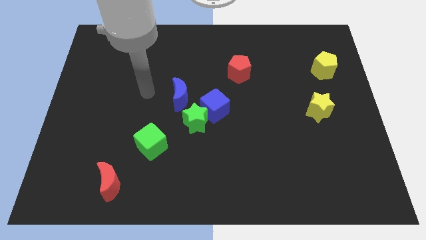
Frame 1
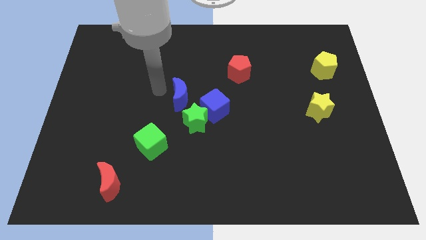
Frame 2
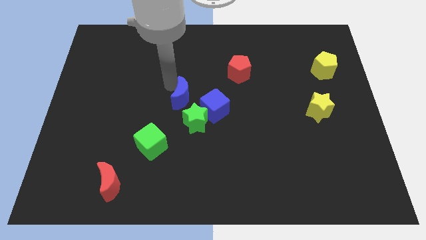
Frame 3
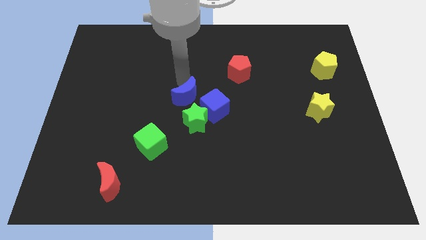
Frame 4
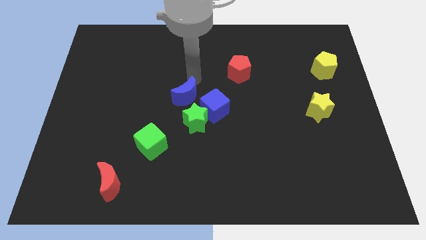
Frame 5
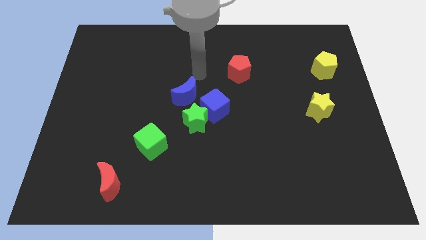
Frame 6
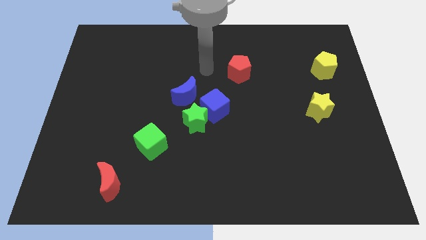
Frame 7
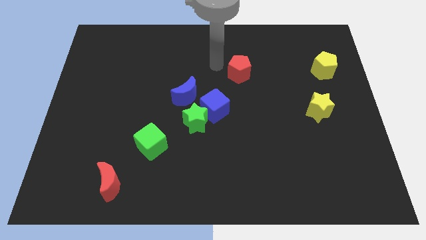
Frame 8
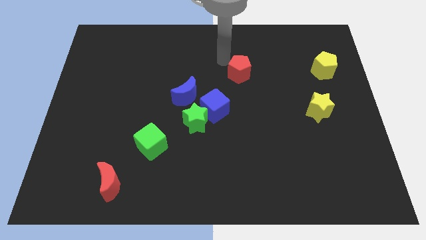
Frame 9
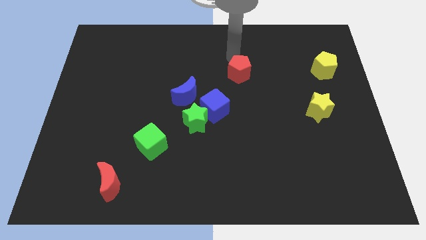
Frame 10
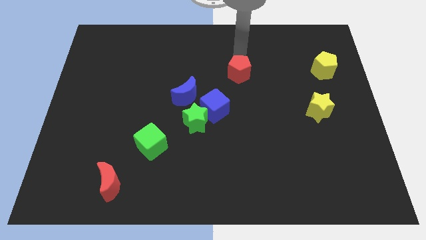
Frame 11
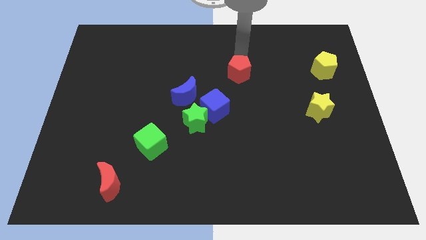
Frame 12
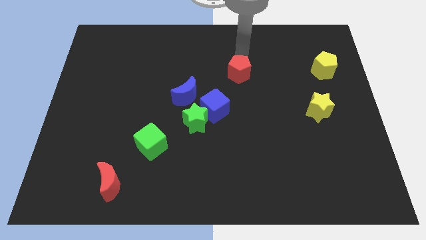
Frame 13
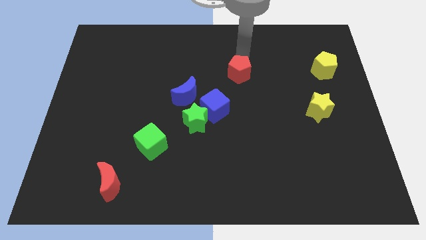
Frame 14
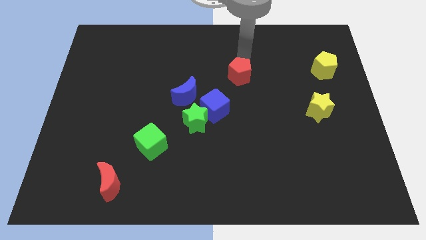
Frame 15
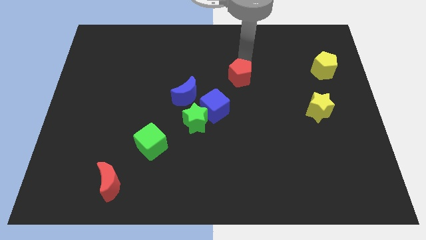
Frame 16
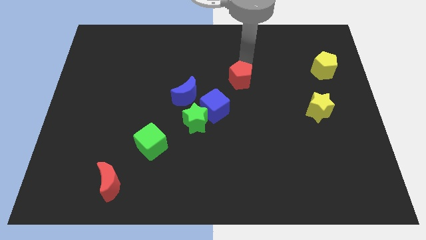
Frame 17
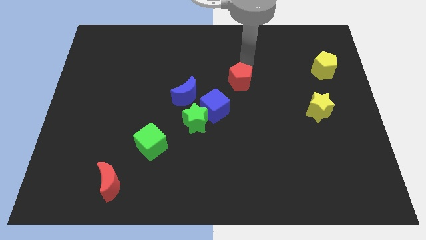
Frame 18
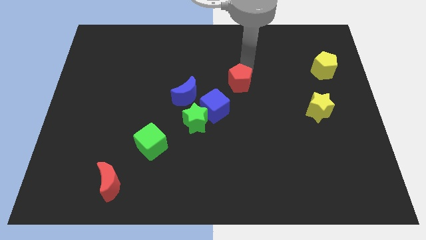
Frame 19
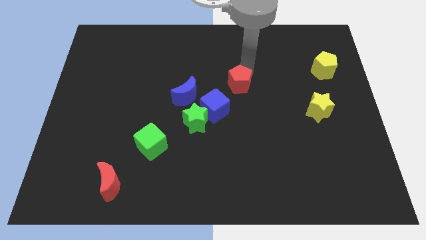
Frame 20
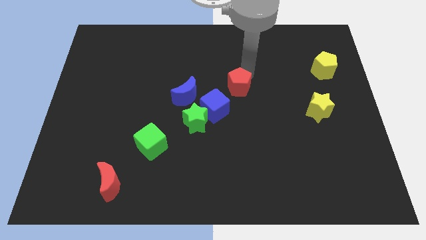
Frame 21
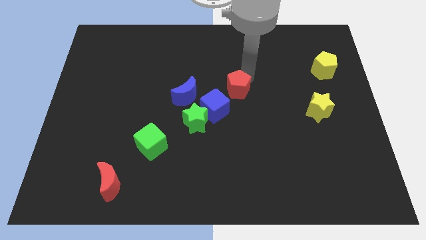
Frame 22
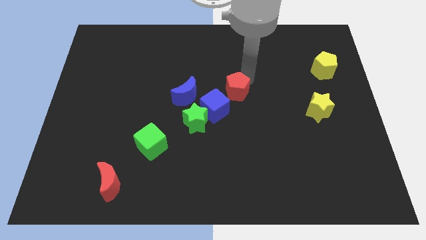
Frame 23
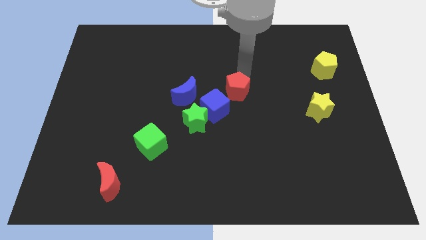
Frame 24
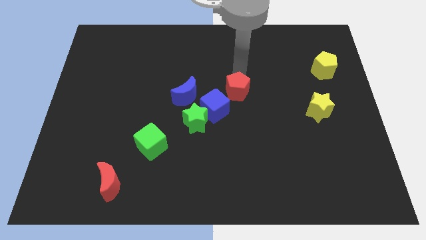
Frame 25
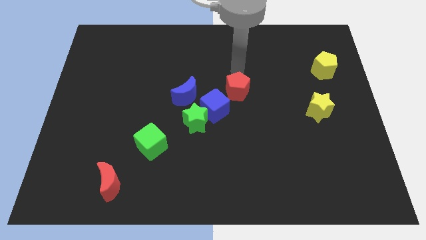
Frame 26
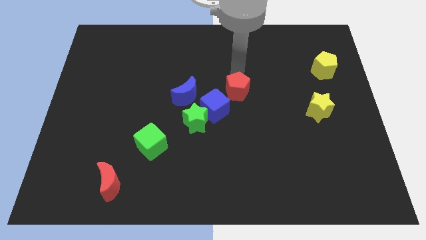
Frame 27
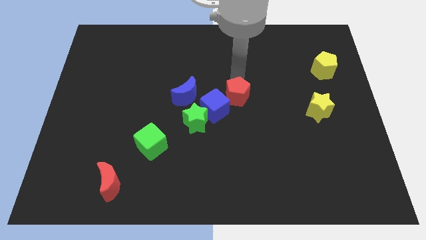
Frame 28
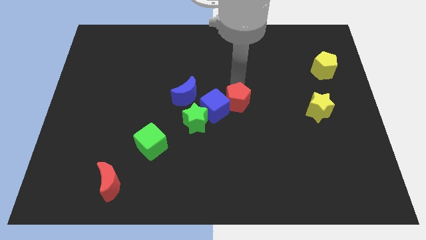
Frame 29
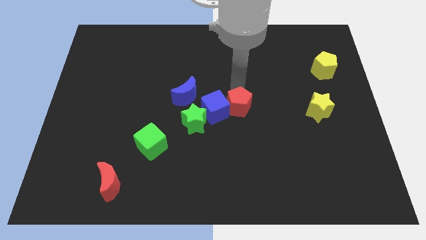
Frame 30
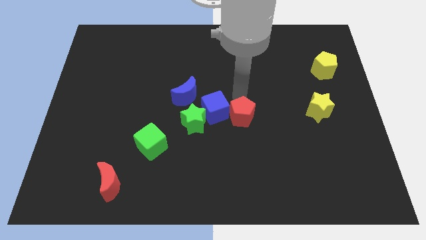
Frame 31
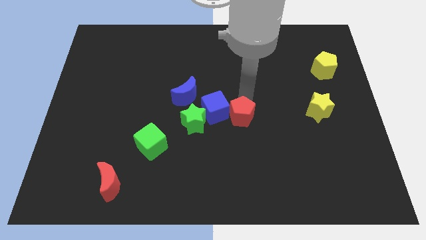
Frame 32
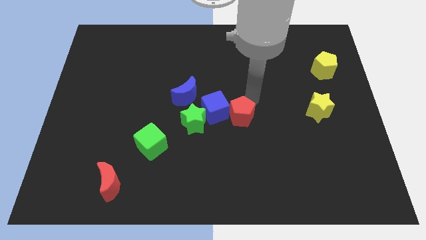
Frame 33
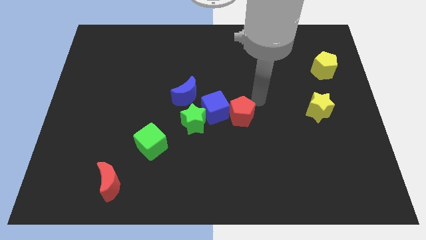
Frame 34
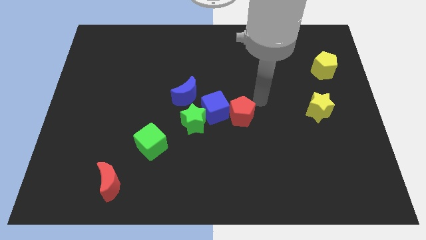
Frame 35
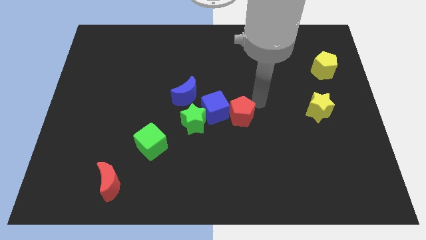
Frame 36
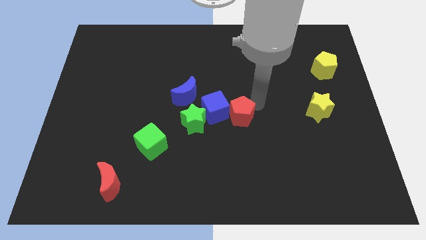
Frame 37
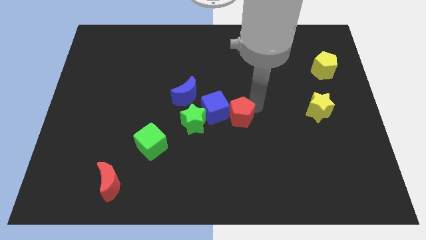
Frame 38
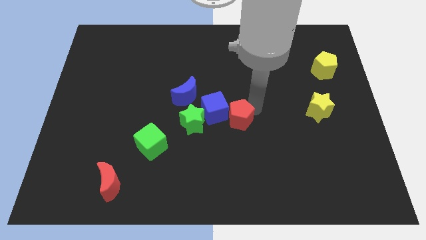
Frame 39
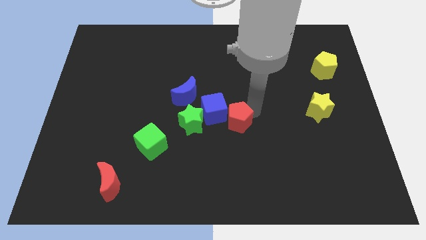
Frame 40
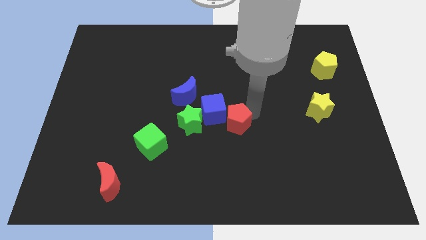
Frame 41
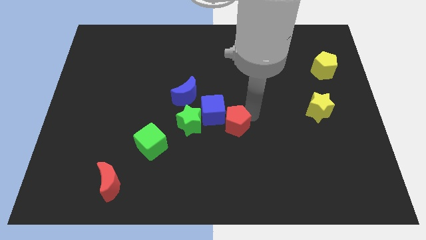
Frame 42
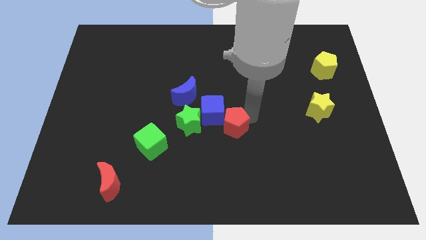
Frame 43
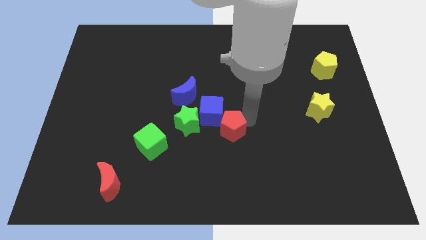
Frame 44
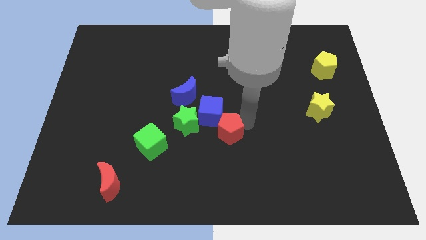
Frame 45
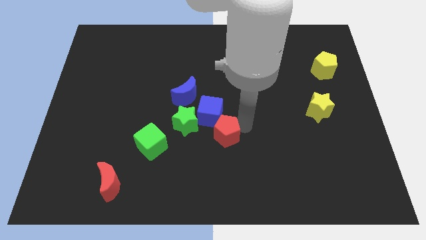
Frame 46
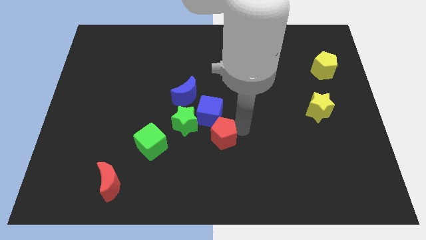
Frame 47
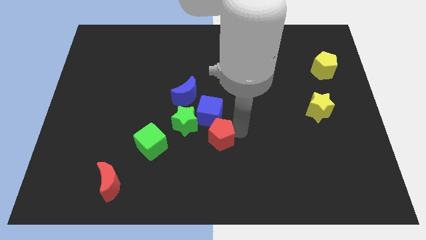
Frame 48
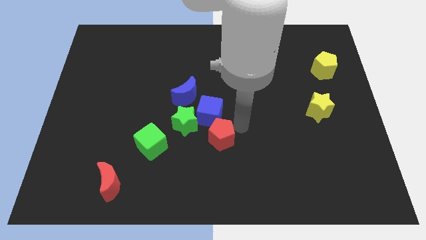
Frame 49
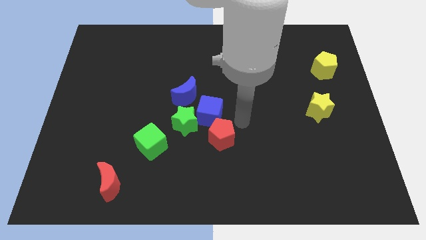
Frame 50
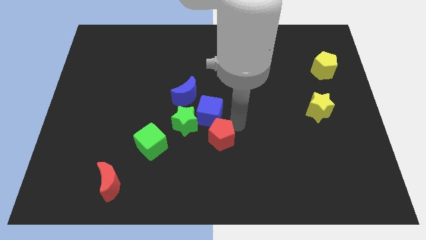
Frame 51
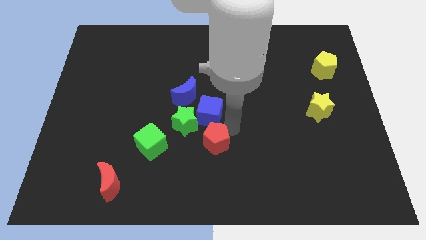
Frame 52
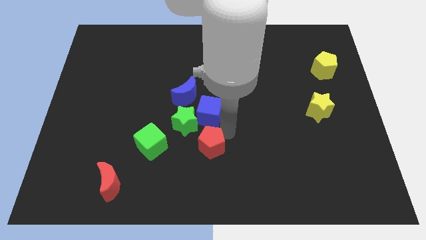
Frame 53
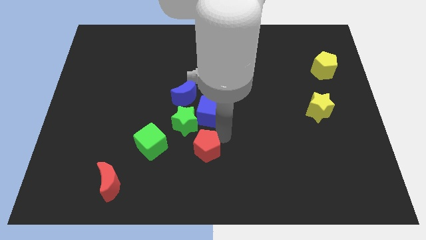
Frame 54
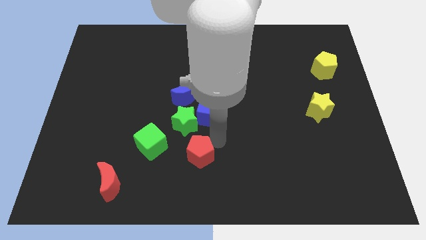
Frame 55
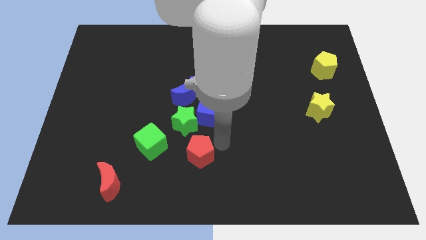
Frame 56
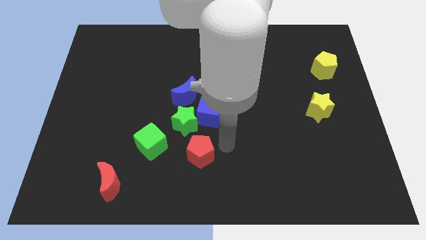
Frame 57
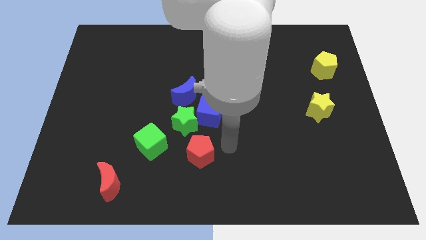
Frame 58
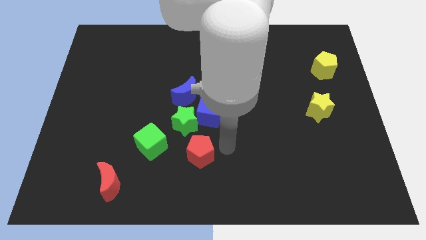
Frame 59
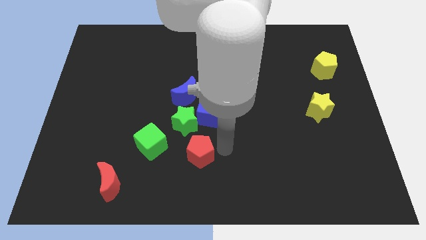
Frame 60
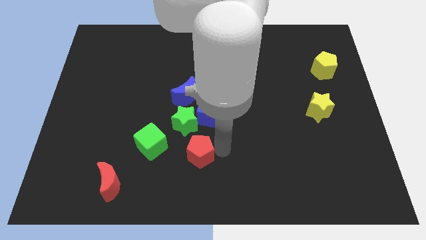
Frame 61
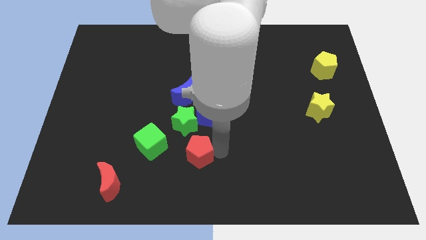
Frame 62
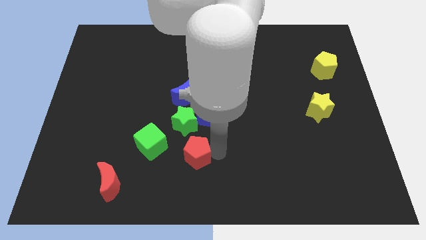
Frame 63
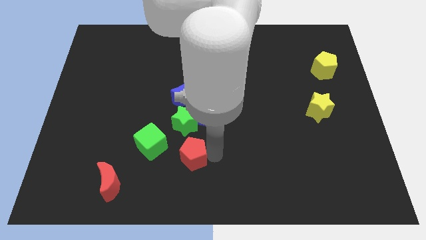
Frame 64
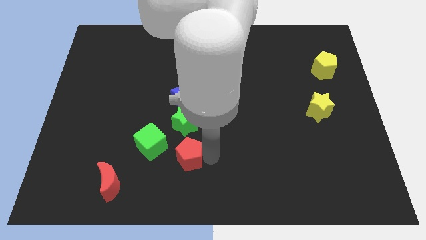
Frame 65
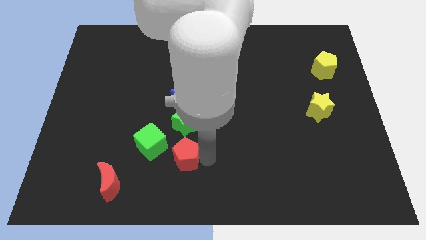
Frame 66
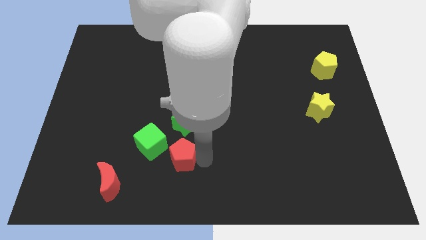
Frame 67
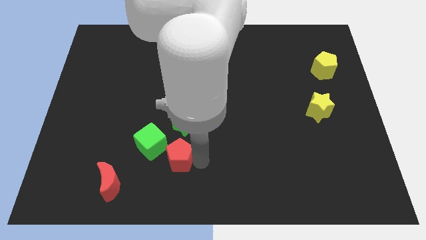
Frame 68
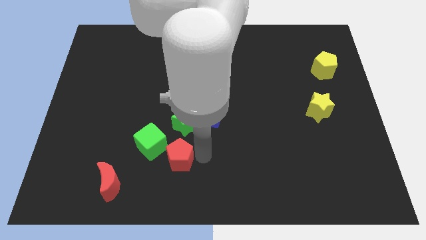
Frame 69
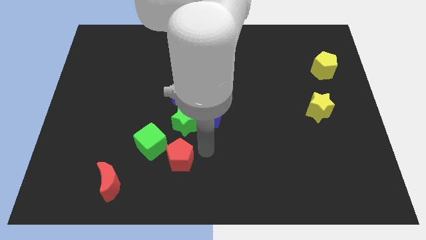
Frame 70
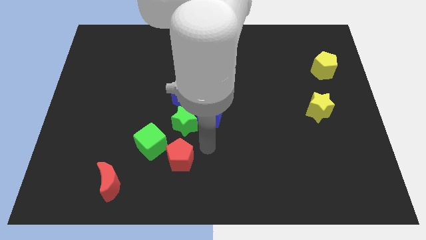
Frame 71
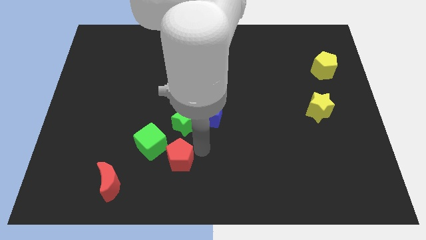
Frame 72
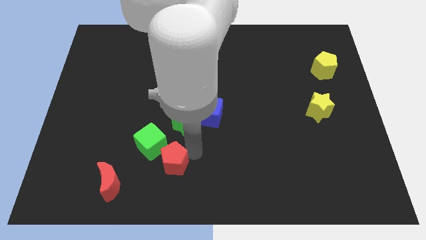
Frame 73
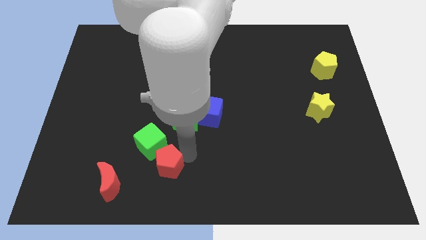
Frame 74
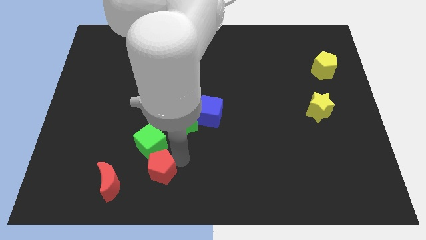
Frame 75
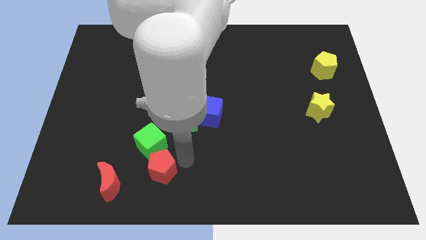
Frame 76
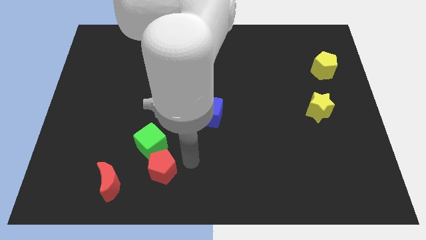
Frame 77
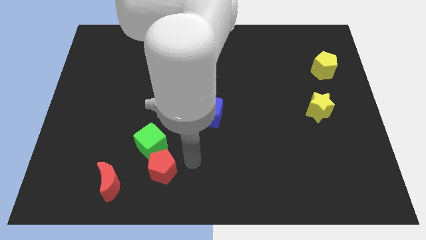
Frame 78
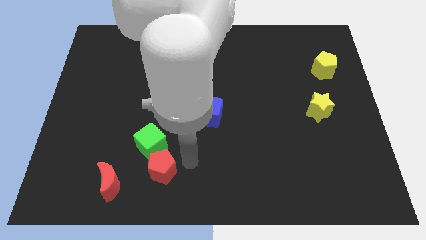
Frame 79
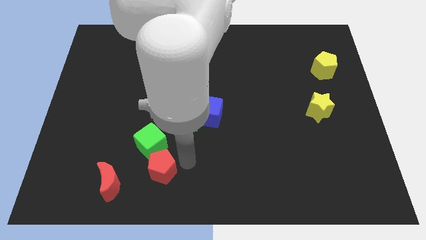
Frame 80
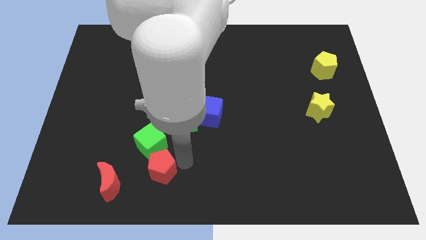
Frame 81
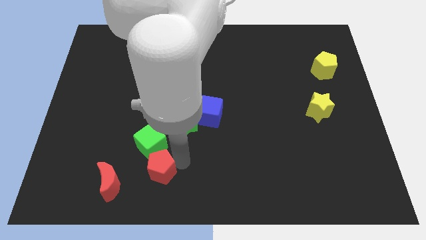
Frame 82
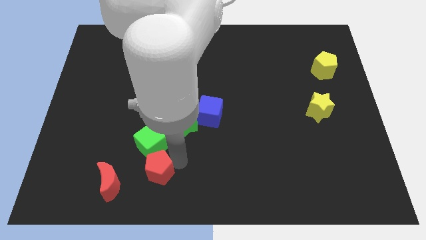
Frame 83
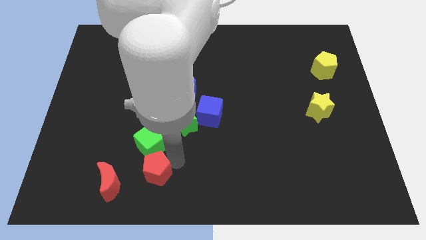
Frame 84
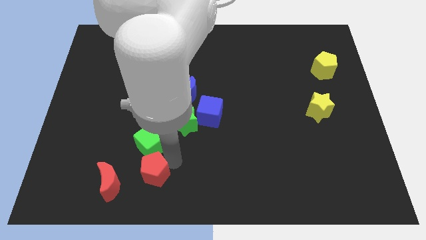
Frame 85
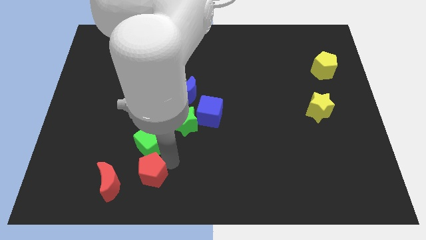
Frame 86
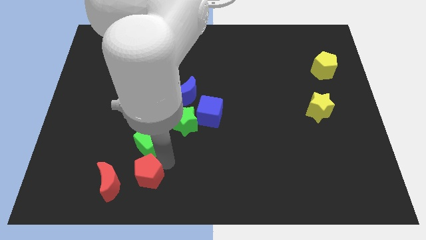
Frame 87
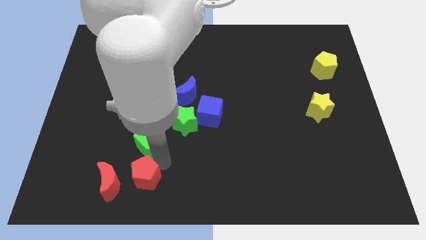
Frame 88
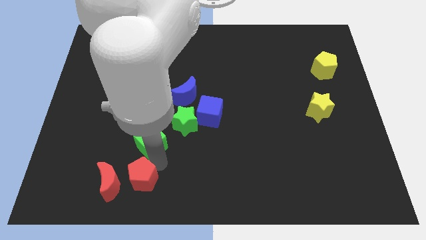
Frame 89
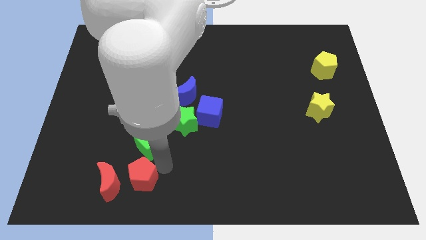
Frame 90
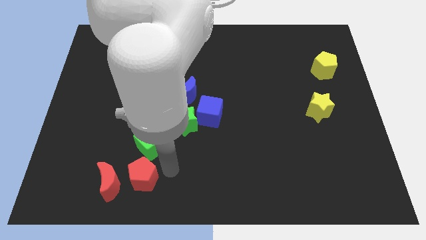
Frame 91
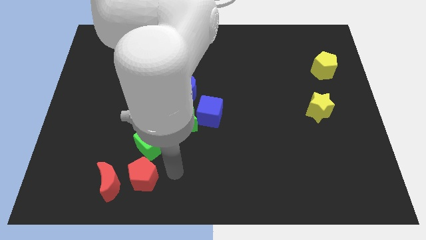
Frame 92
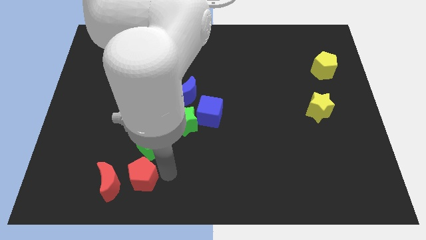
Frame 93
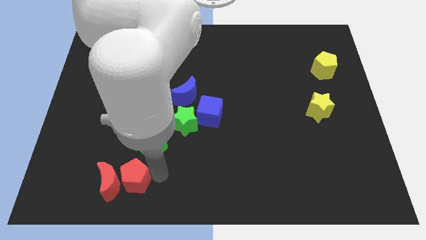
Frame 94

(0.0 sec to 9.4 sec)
slide the red pentagon close to the red moon
